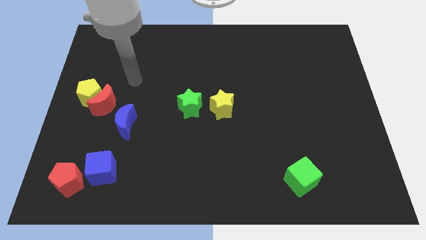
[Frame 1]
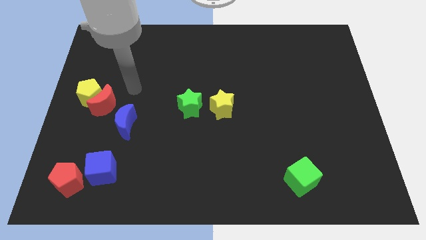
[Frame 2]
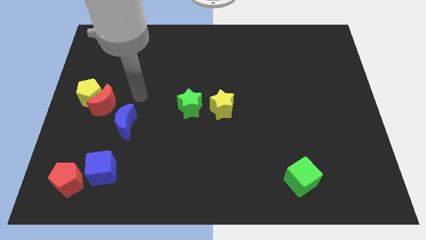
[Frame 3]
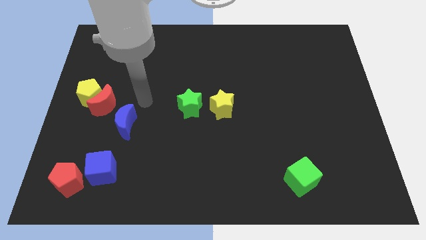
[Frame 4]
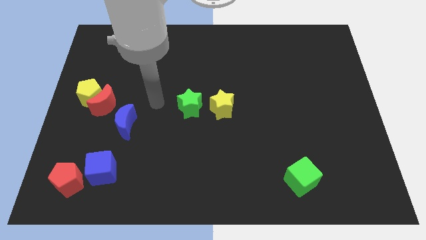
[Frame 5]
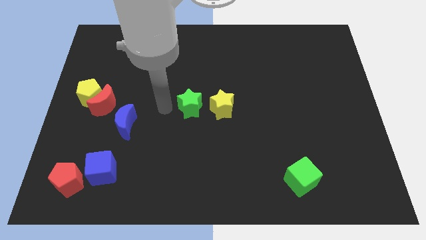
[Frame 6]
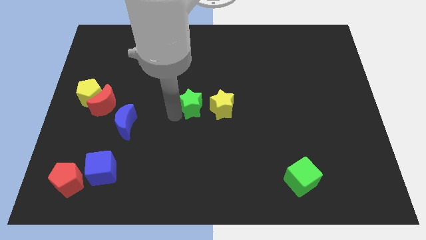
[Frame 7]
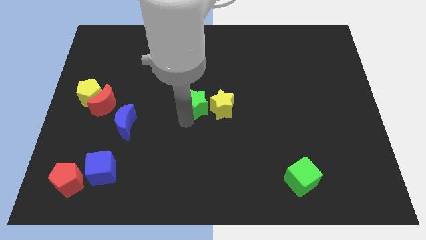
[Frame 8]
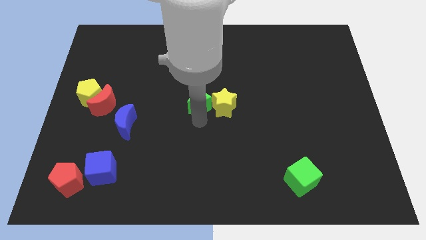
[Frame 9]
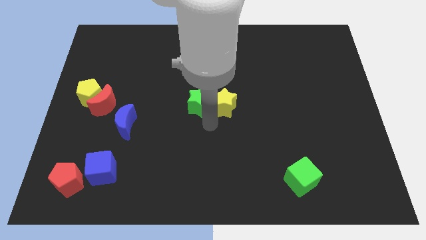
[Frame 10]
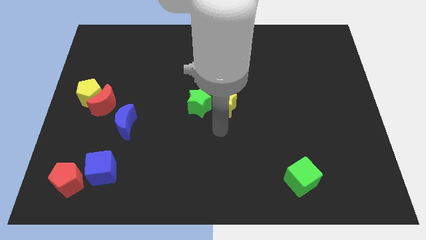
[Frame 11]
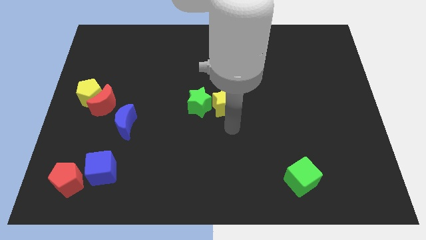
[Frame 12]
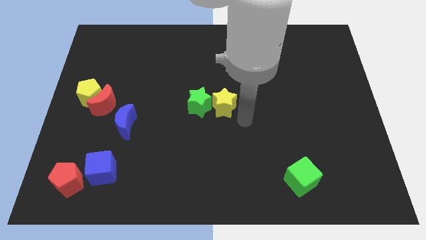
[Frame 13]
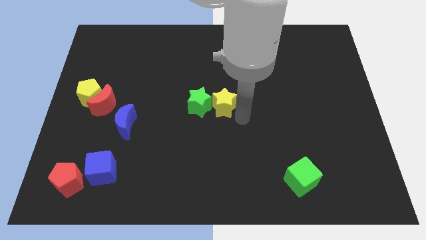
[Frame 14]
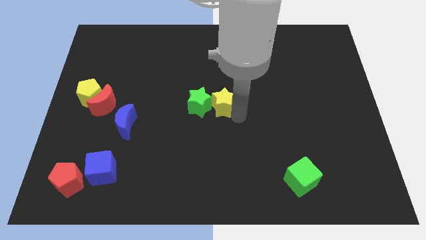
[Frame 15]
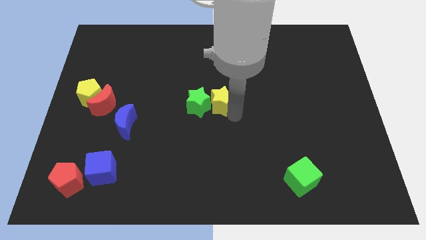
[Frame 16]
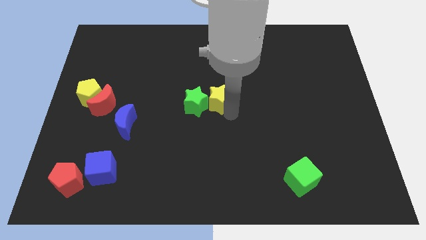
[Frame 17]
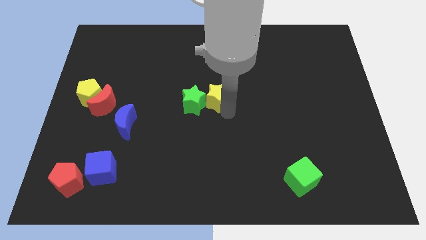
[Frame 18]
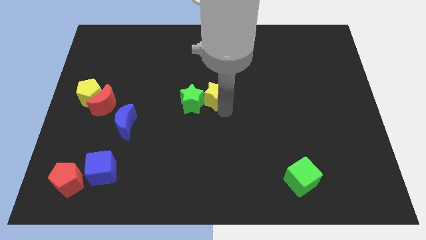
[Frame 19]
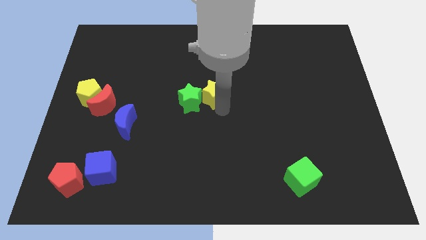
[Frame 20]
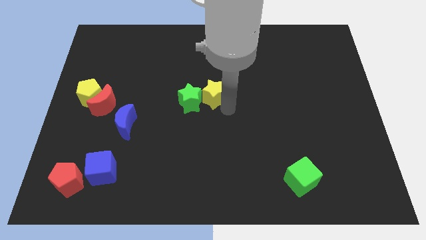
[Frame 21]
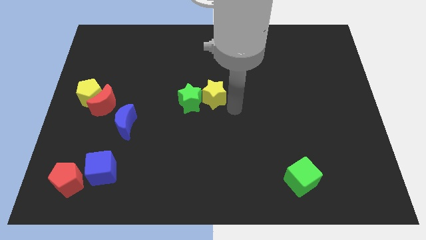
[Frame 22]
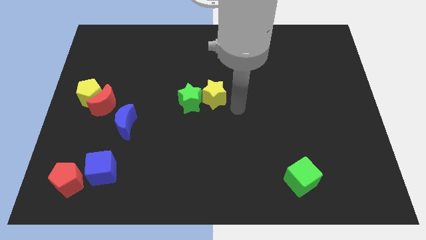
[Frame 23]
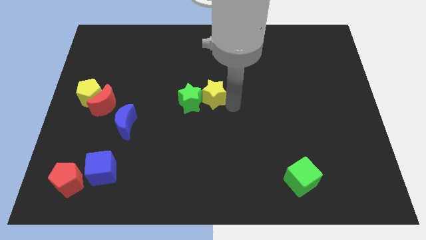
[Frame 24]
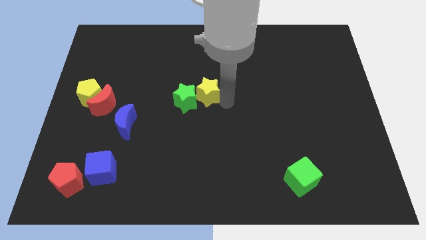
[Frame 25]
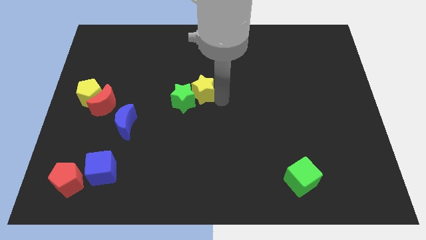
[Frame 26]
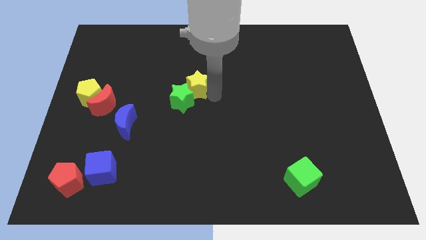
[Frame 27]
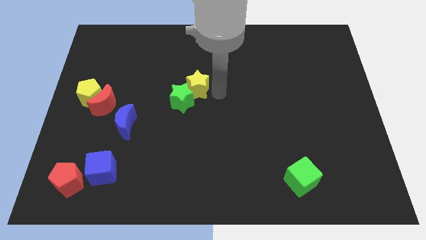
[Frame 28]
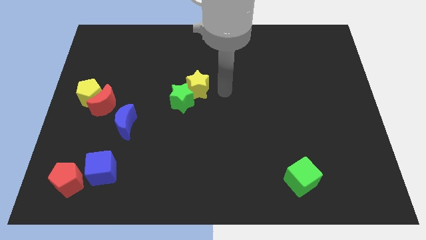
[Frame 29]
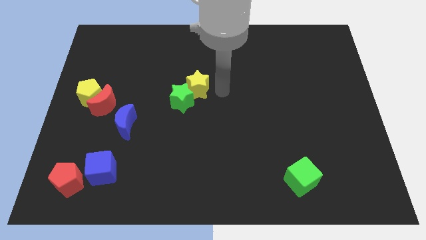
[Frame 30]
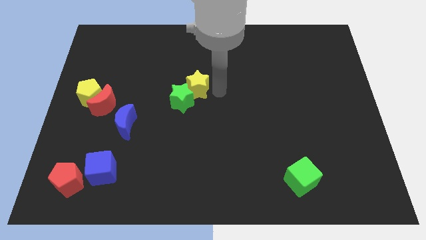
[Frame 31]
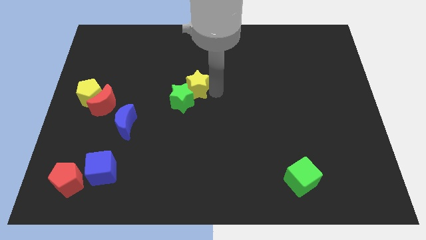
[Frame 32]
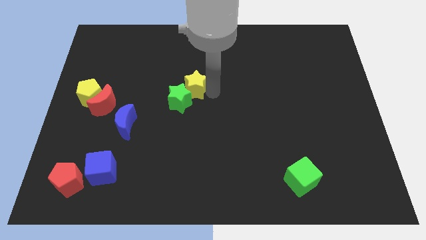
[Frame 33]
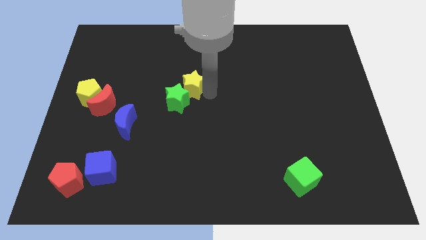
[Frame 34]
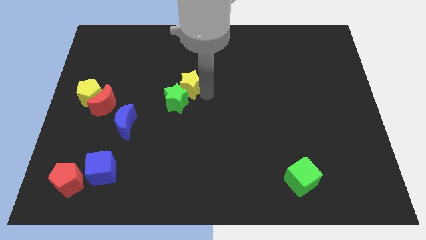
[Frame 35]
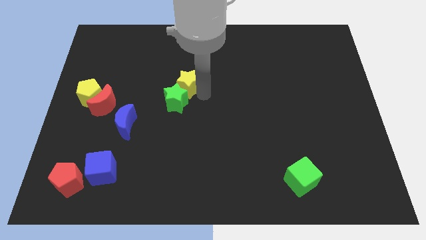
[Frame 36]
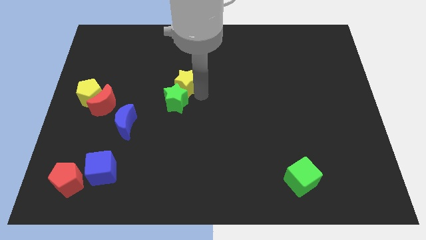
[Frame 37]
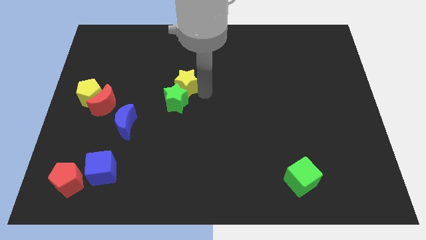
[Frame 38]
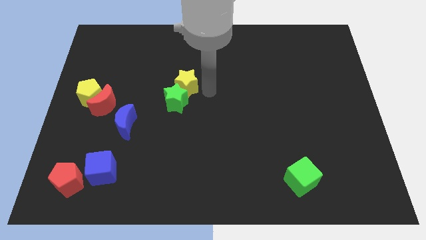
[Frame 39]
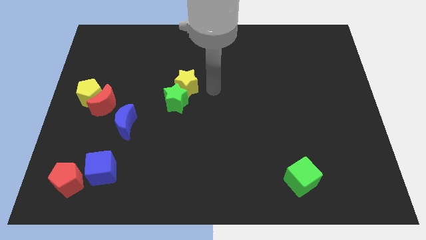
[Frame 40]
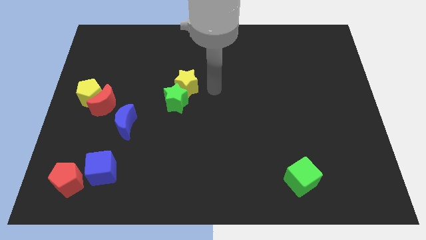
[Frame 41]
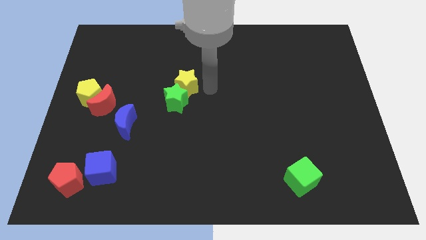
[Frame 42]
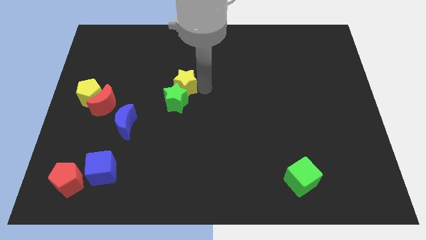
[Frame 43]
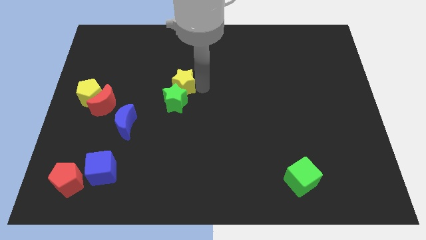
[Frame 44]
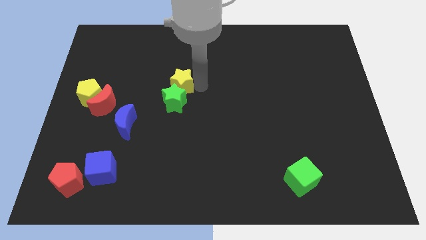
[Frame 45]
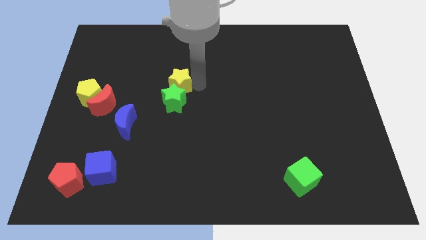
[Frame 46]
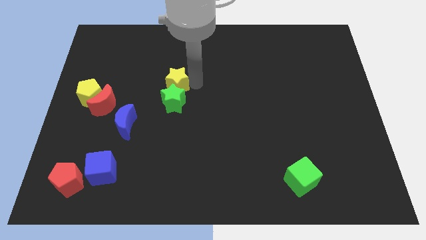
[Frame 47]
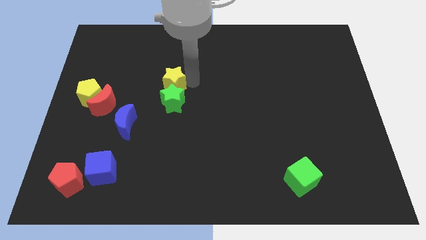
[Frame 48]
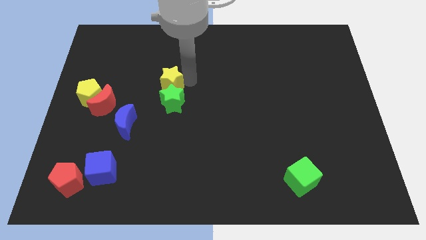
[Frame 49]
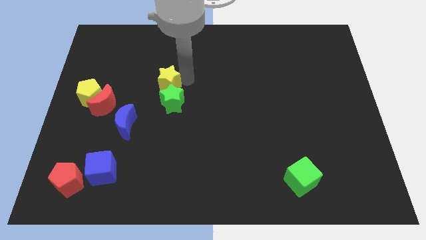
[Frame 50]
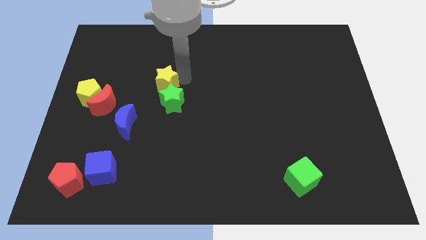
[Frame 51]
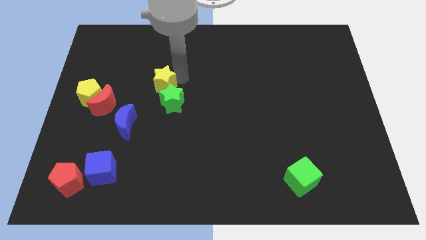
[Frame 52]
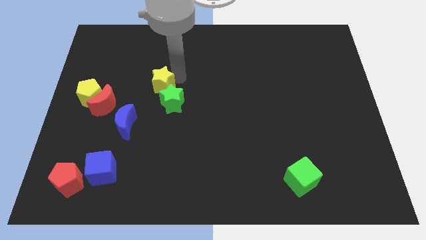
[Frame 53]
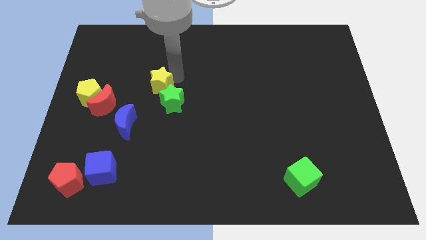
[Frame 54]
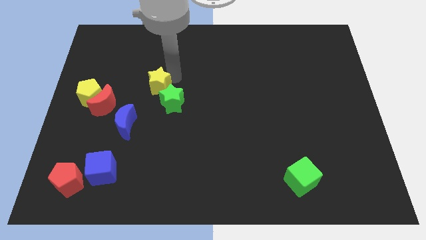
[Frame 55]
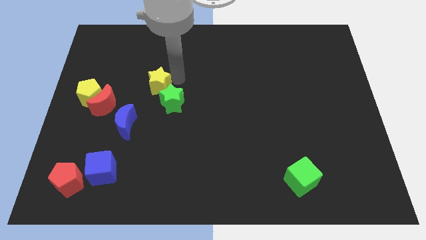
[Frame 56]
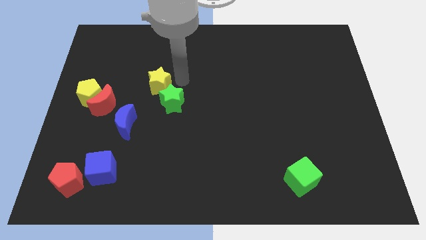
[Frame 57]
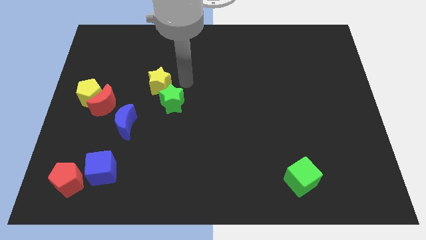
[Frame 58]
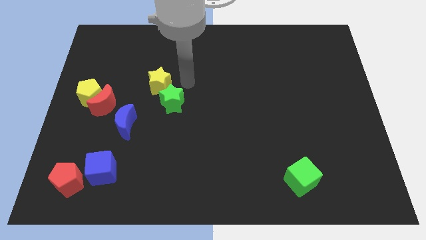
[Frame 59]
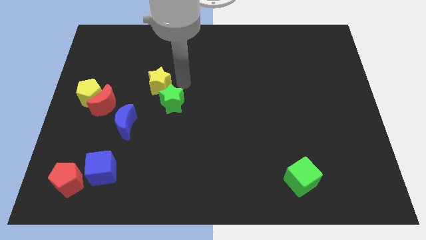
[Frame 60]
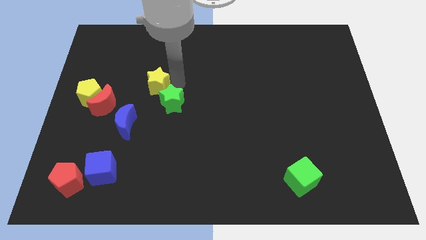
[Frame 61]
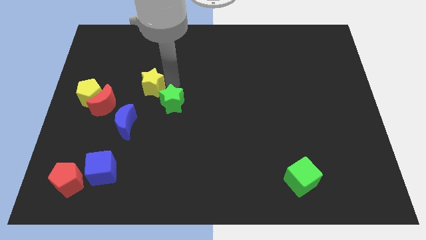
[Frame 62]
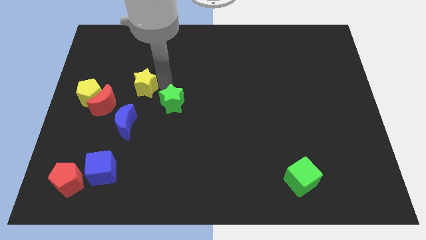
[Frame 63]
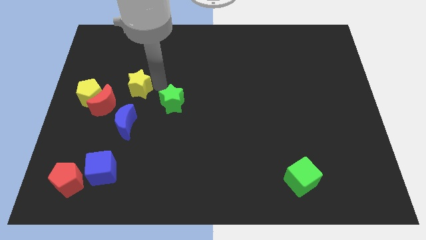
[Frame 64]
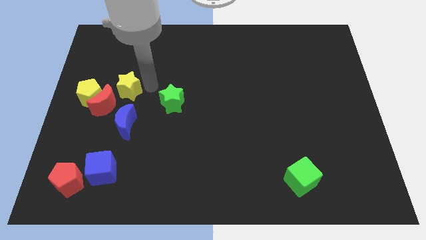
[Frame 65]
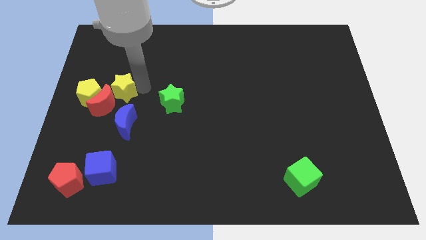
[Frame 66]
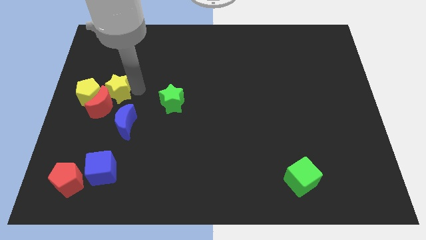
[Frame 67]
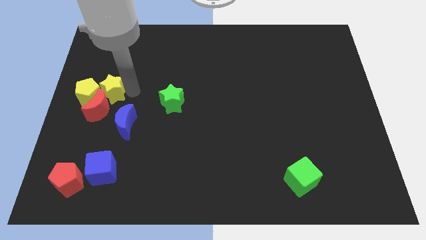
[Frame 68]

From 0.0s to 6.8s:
push the yellow star to the yellow pentagon
